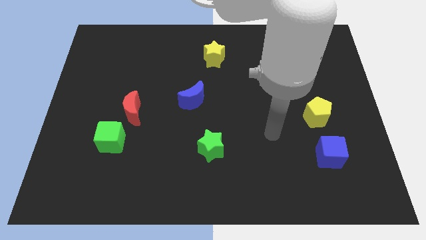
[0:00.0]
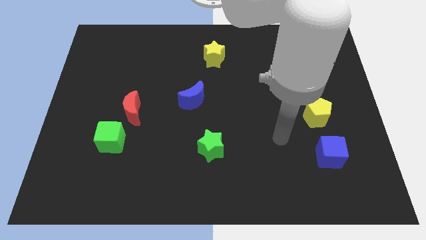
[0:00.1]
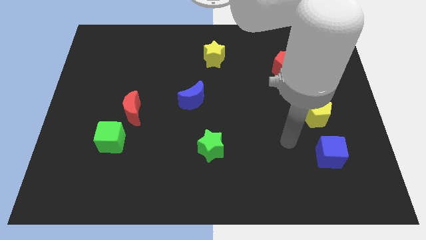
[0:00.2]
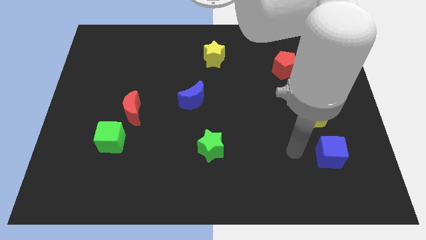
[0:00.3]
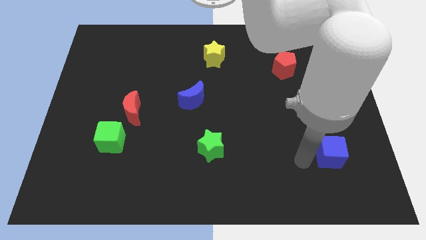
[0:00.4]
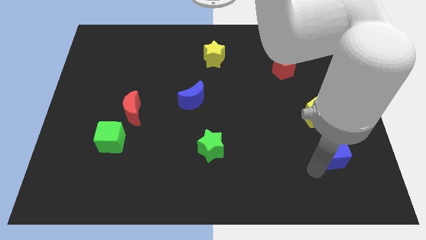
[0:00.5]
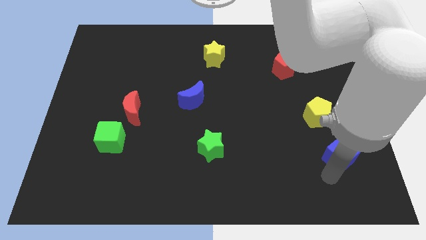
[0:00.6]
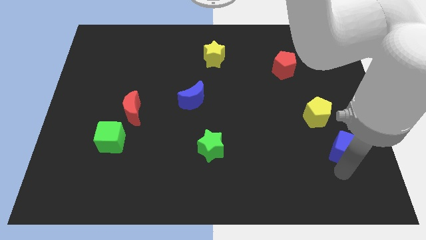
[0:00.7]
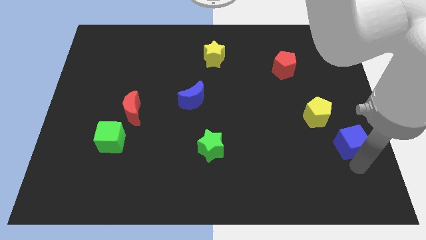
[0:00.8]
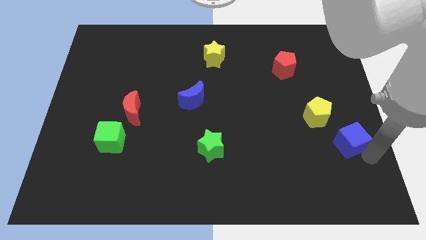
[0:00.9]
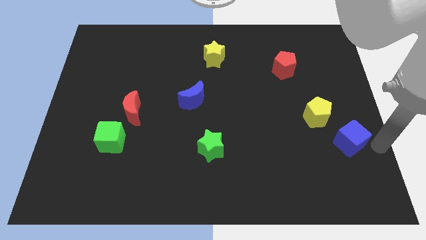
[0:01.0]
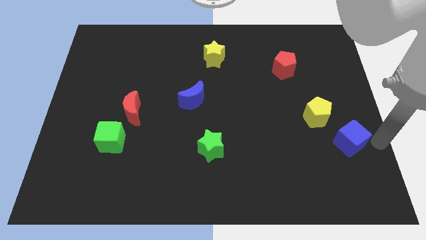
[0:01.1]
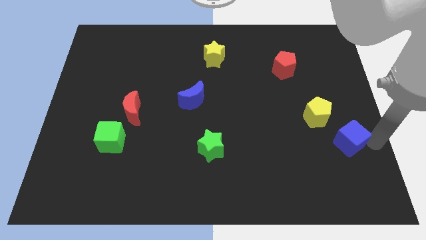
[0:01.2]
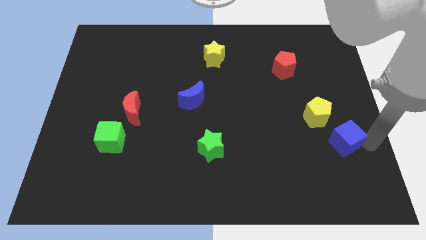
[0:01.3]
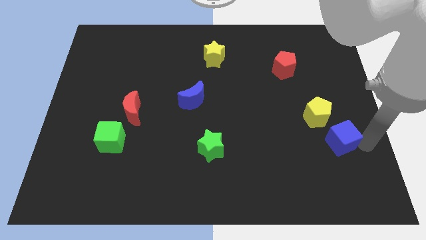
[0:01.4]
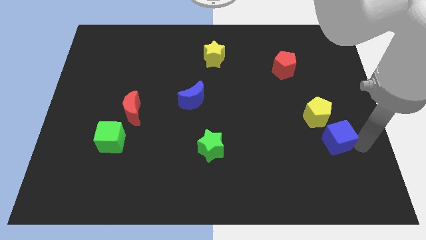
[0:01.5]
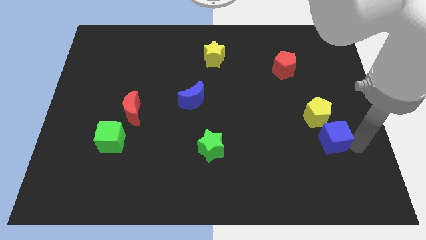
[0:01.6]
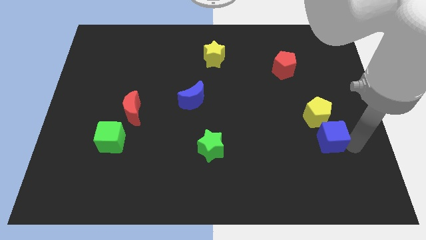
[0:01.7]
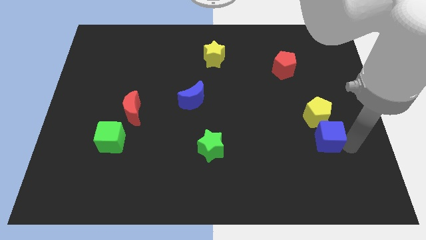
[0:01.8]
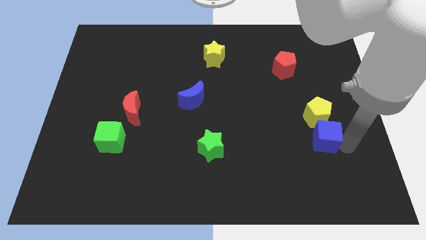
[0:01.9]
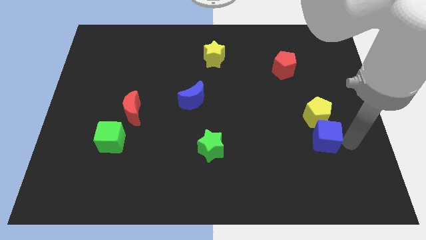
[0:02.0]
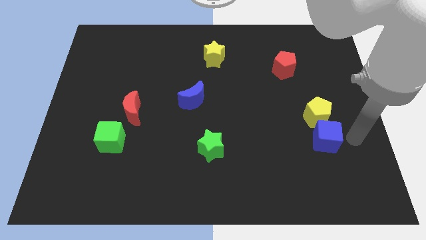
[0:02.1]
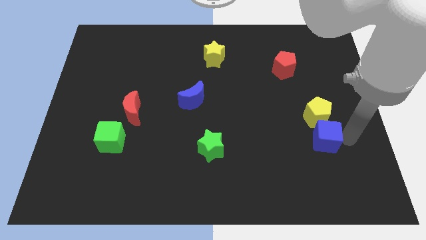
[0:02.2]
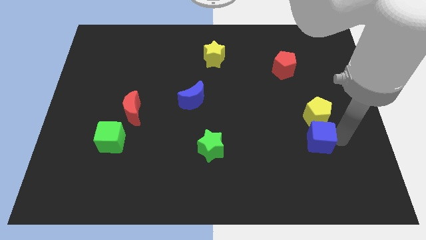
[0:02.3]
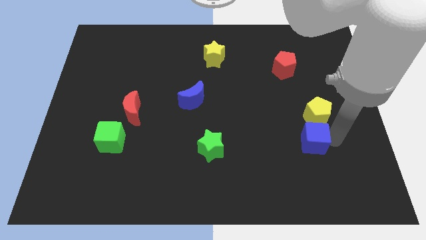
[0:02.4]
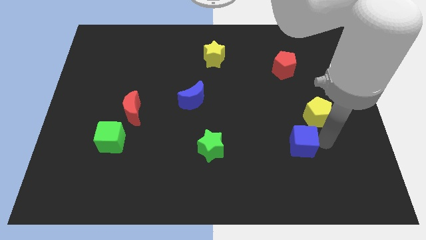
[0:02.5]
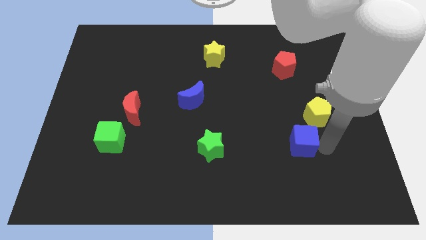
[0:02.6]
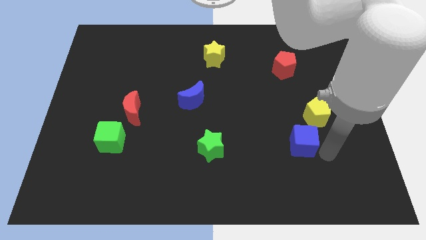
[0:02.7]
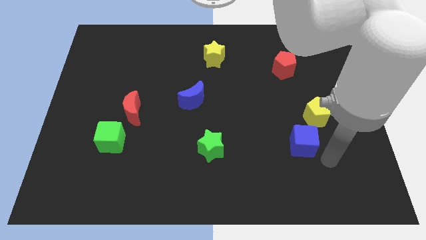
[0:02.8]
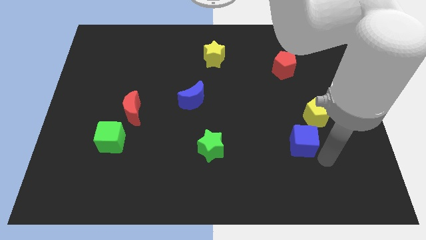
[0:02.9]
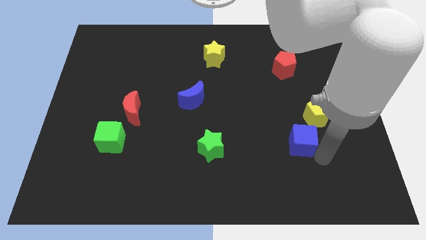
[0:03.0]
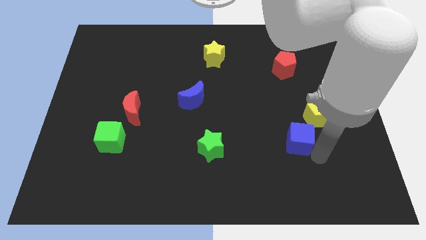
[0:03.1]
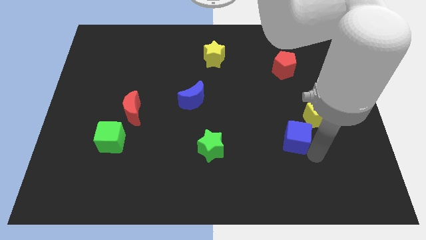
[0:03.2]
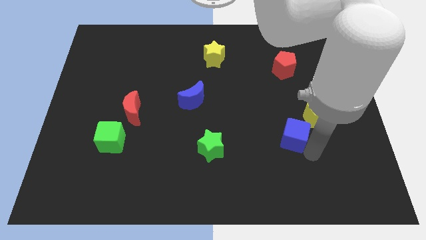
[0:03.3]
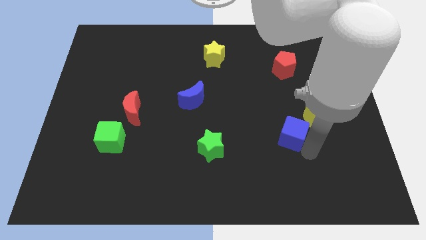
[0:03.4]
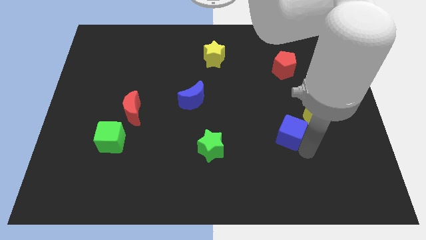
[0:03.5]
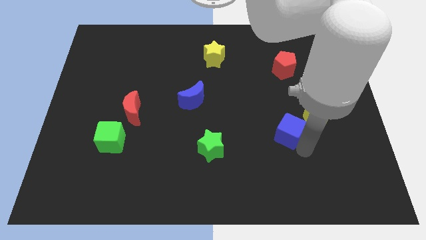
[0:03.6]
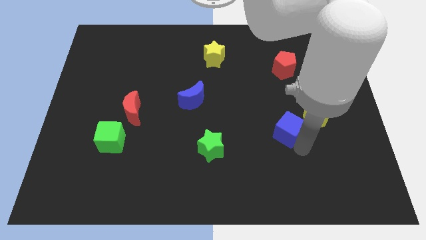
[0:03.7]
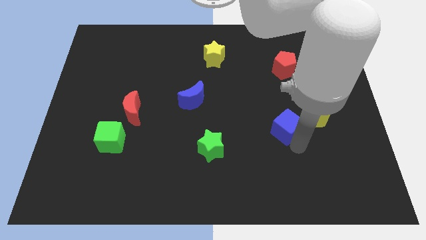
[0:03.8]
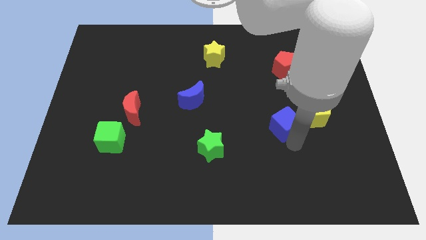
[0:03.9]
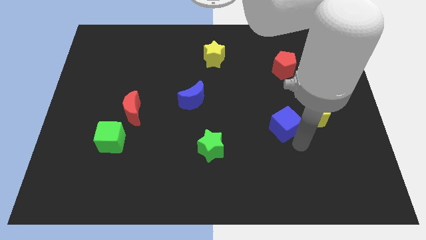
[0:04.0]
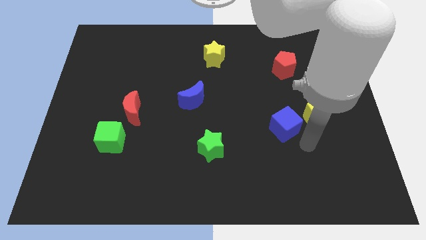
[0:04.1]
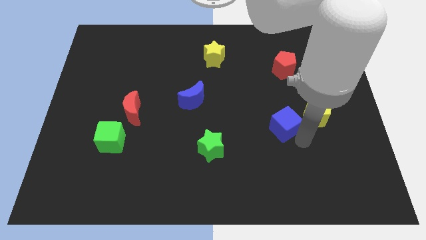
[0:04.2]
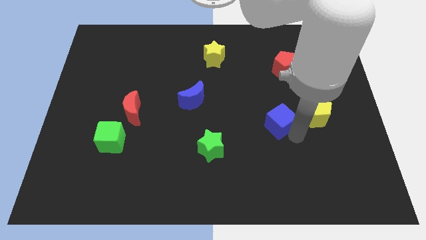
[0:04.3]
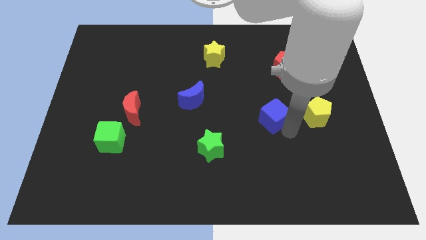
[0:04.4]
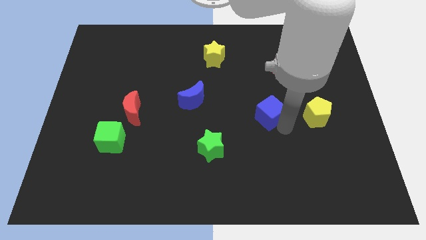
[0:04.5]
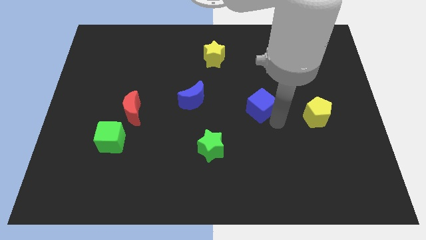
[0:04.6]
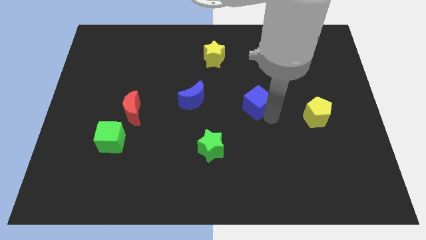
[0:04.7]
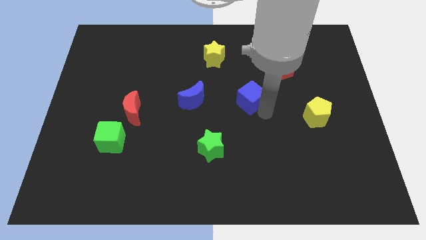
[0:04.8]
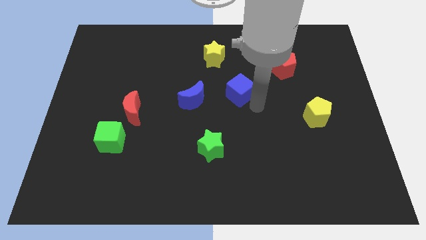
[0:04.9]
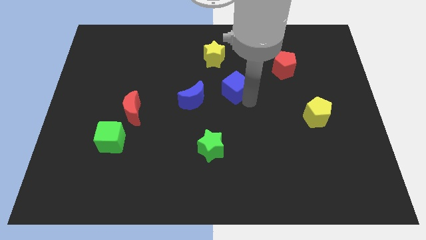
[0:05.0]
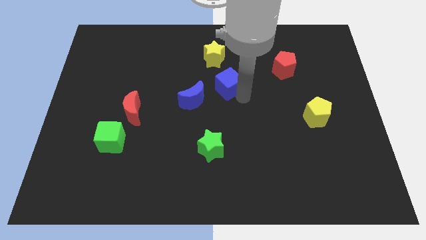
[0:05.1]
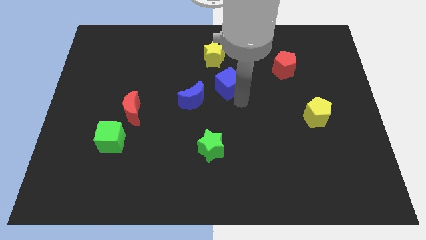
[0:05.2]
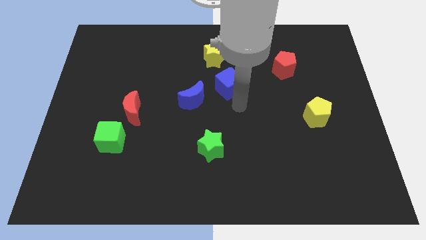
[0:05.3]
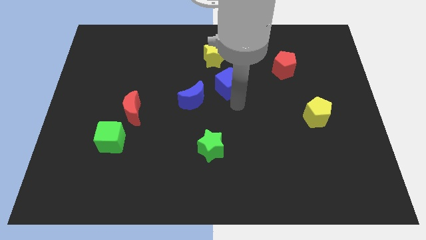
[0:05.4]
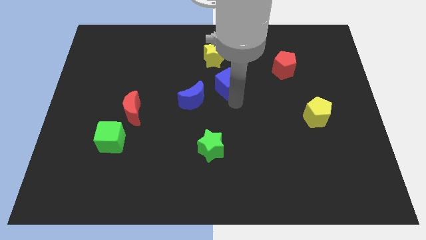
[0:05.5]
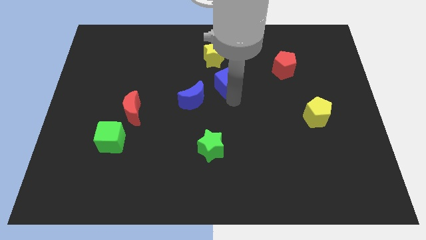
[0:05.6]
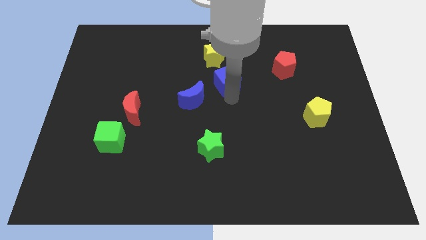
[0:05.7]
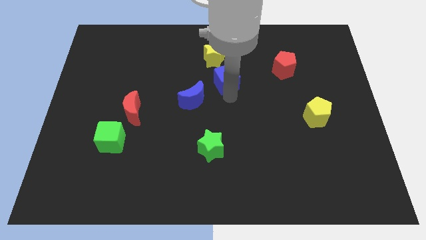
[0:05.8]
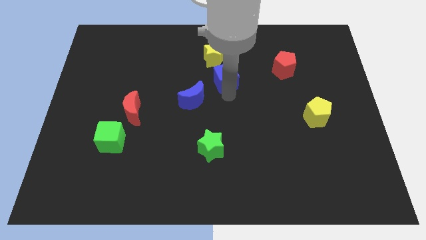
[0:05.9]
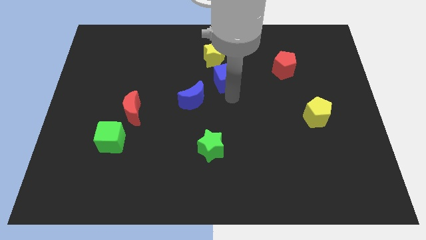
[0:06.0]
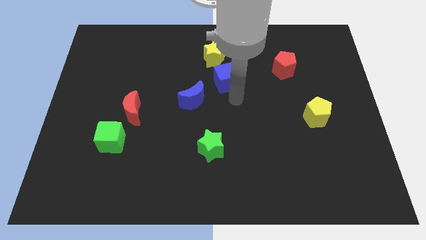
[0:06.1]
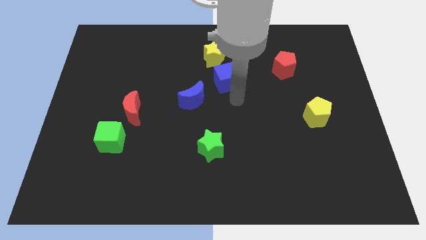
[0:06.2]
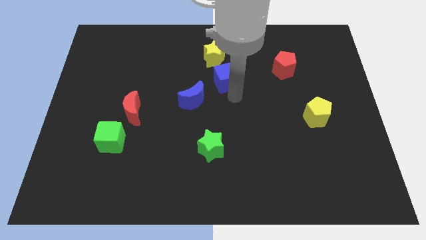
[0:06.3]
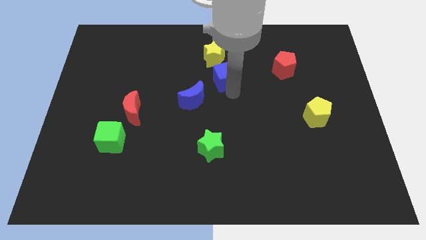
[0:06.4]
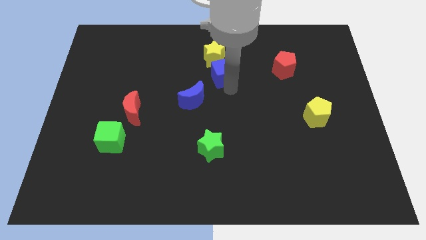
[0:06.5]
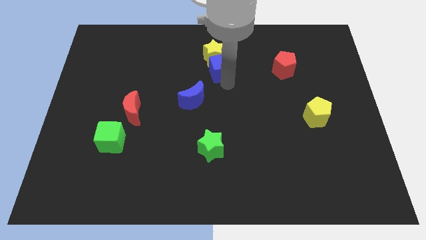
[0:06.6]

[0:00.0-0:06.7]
slide the blue cube towards the yellow star

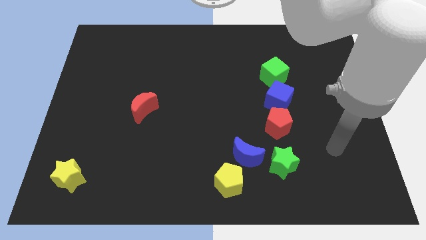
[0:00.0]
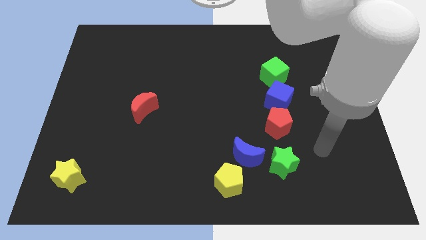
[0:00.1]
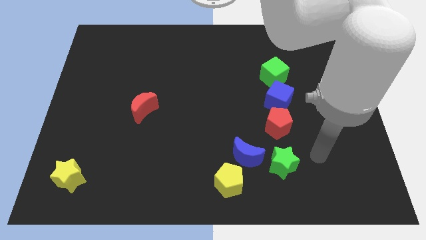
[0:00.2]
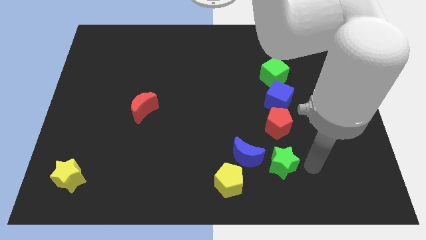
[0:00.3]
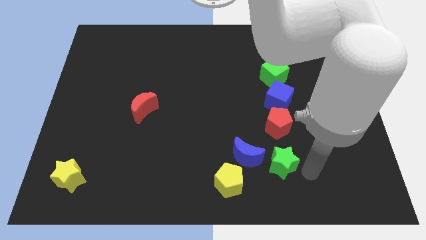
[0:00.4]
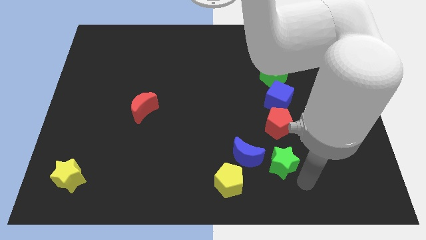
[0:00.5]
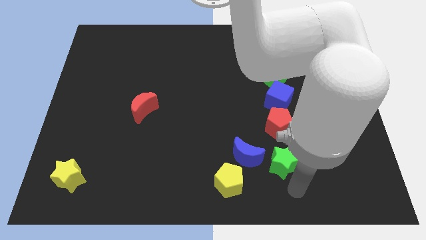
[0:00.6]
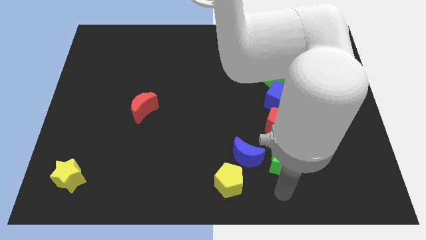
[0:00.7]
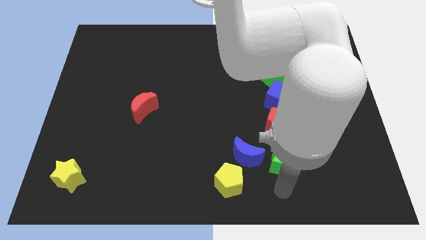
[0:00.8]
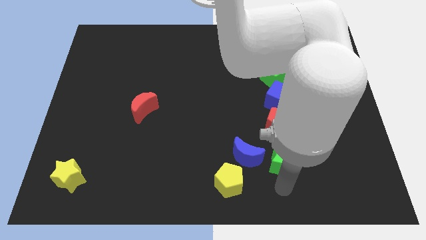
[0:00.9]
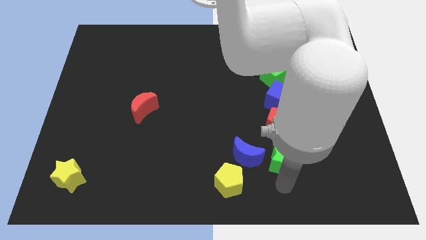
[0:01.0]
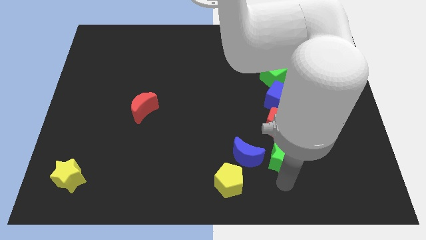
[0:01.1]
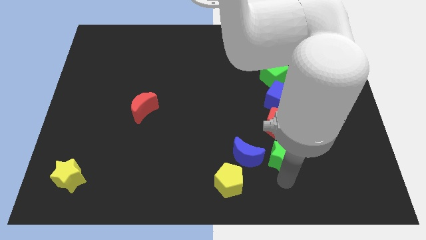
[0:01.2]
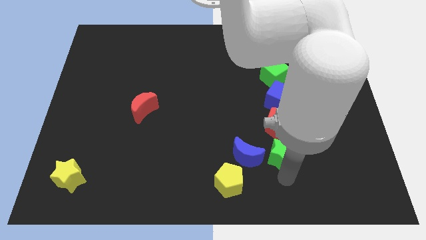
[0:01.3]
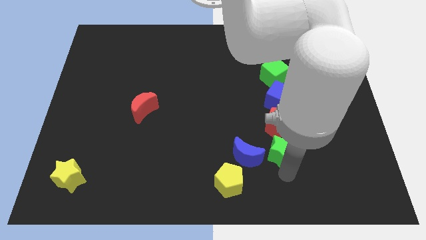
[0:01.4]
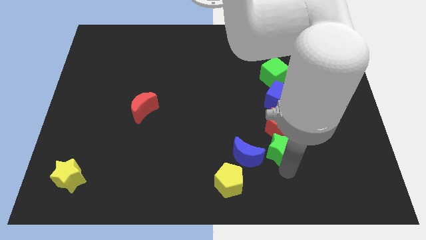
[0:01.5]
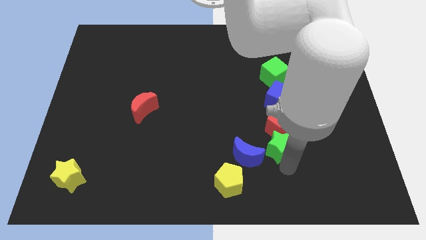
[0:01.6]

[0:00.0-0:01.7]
push the green star close to the red pentagon
